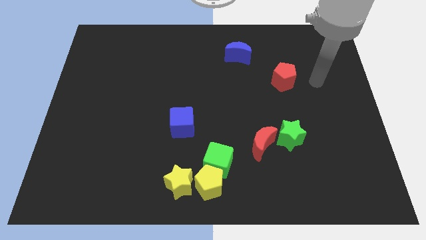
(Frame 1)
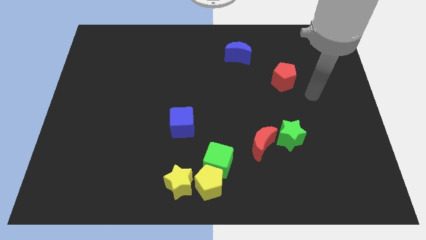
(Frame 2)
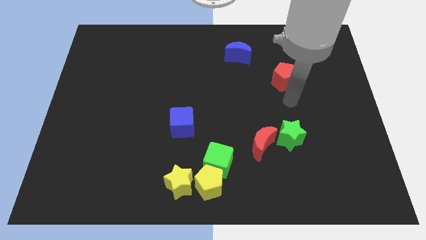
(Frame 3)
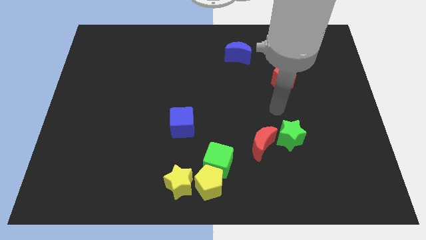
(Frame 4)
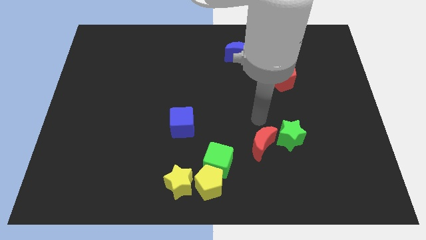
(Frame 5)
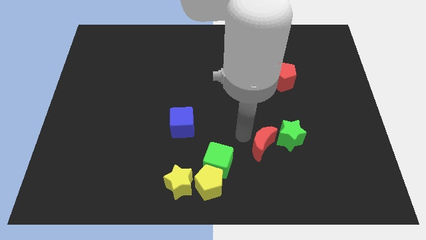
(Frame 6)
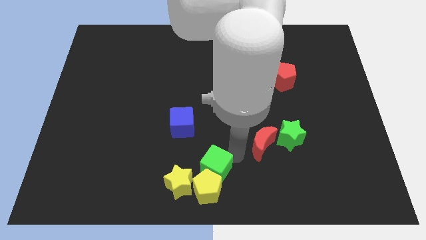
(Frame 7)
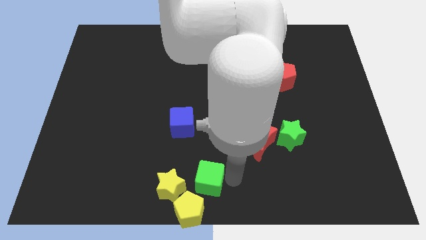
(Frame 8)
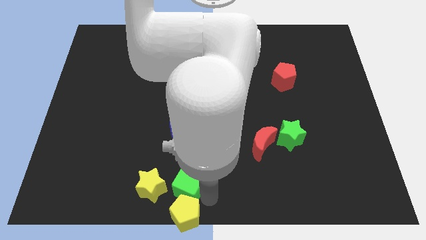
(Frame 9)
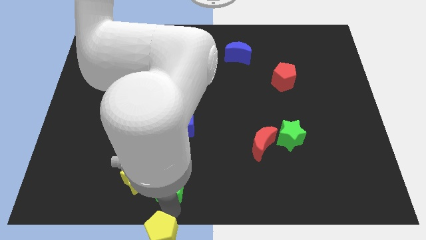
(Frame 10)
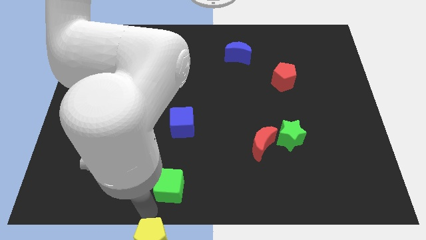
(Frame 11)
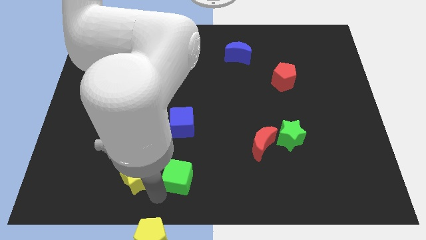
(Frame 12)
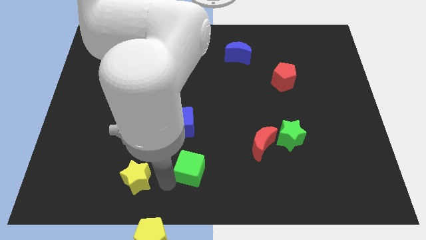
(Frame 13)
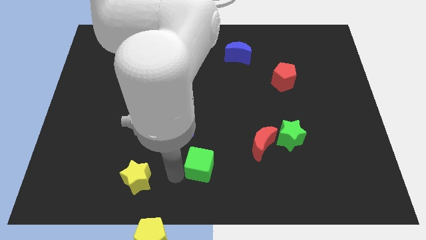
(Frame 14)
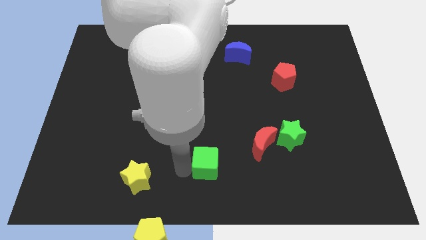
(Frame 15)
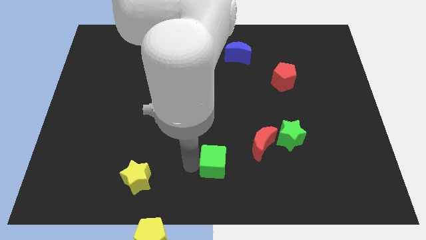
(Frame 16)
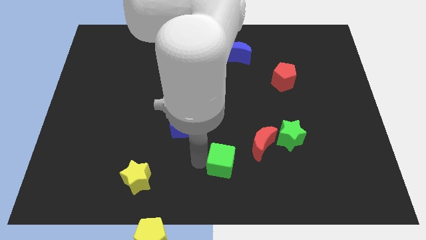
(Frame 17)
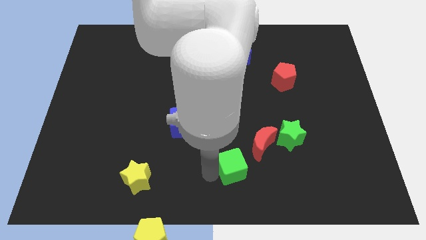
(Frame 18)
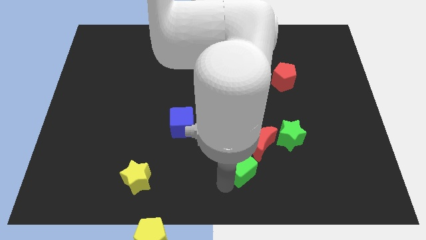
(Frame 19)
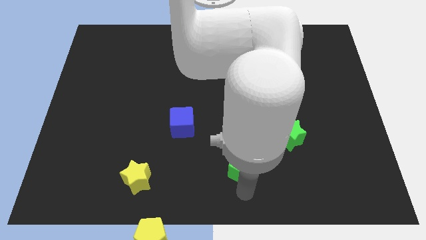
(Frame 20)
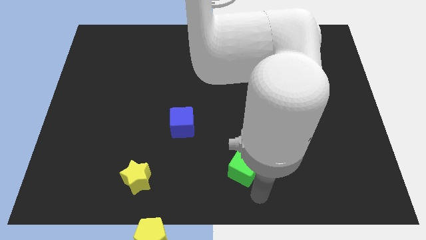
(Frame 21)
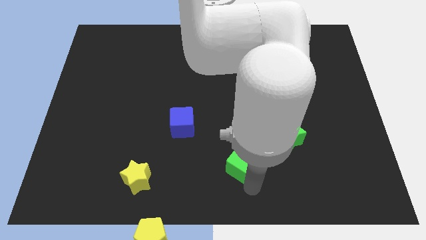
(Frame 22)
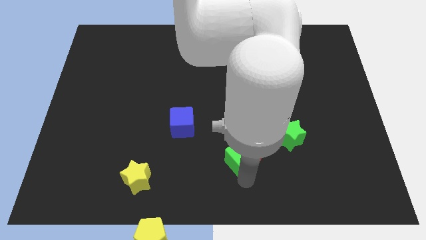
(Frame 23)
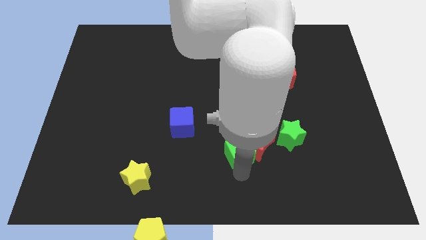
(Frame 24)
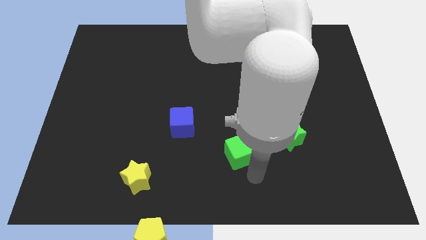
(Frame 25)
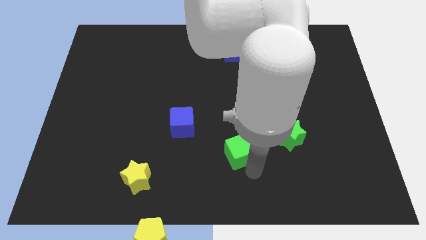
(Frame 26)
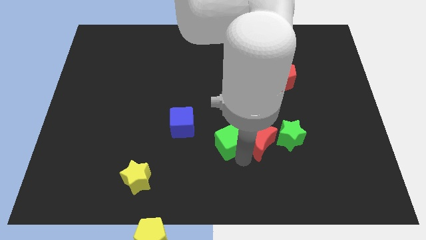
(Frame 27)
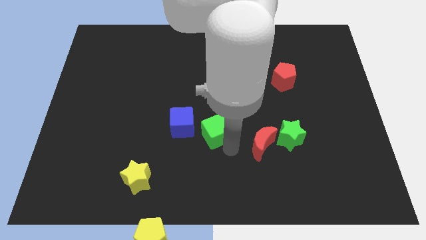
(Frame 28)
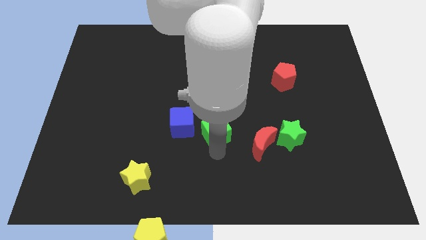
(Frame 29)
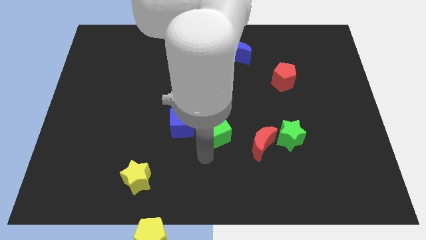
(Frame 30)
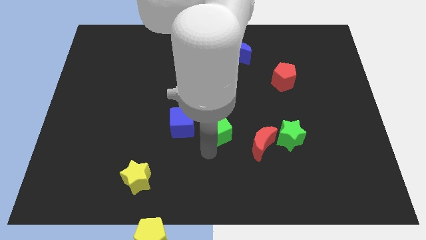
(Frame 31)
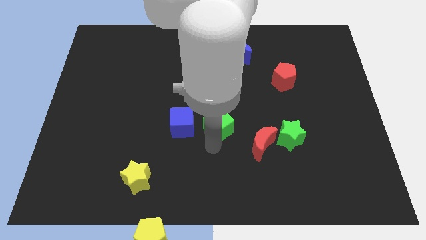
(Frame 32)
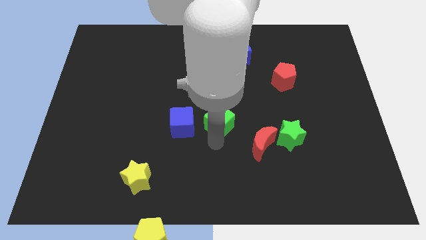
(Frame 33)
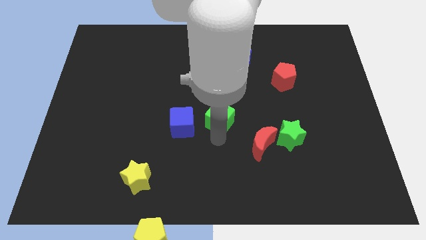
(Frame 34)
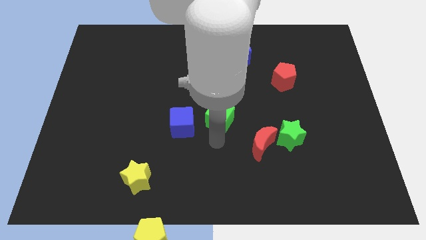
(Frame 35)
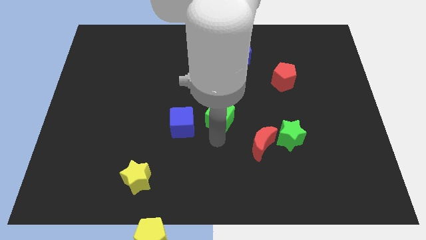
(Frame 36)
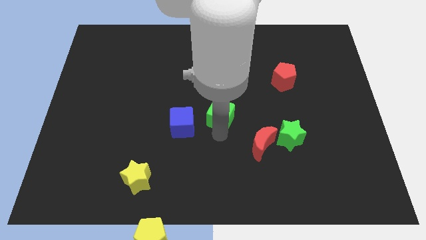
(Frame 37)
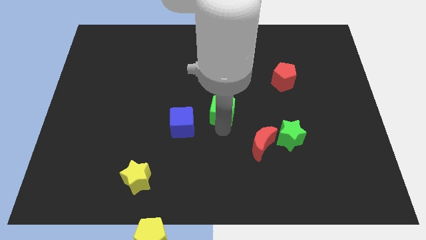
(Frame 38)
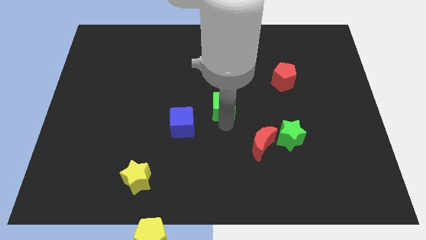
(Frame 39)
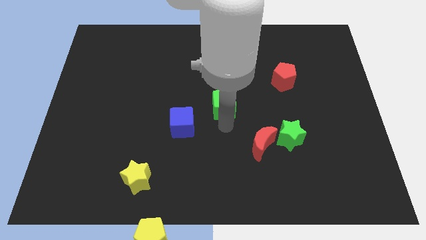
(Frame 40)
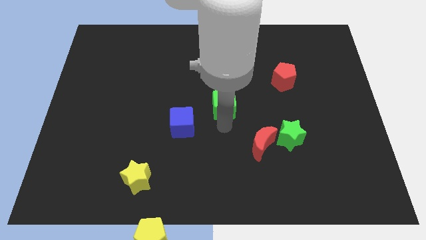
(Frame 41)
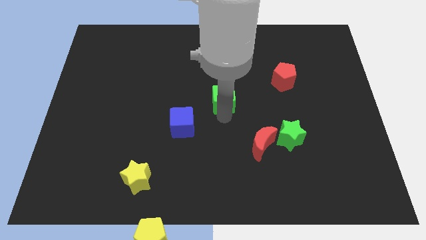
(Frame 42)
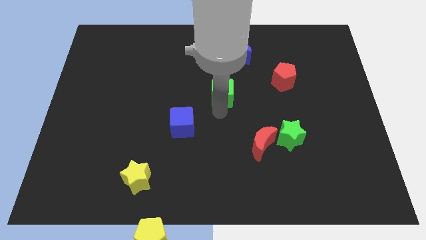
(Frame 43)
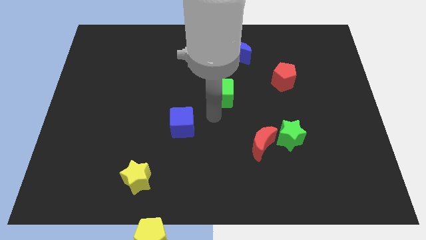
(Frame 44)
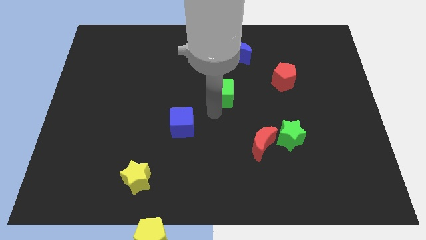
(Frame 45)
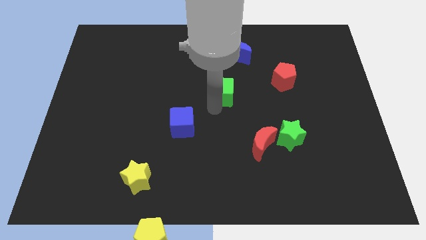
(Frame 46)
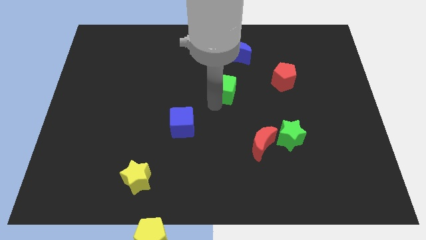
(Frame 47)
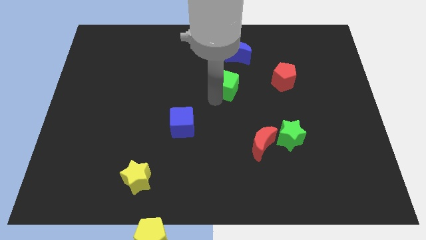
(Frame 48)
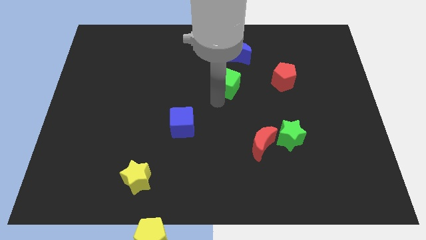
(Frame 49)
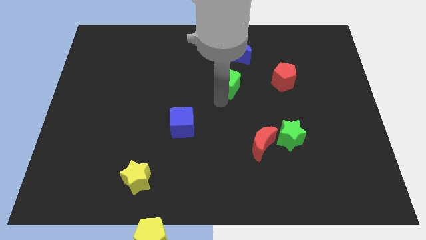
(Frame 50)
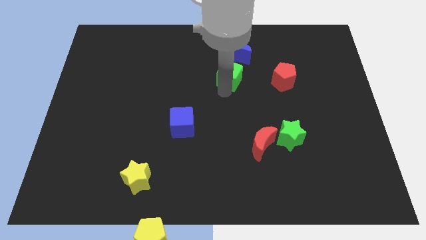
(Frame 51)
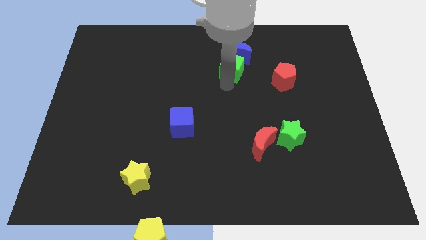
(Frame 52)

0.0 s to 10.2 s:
move the green cube to the blue moon

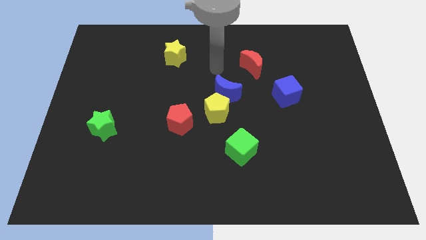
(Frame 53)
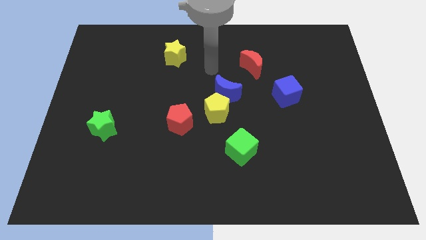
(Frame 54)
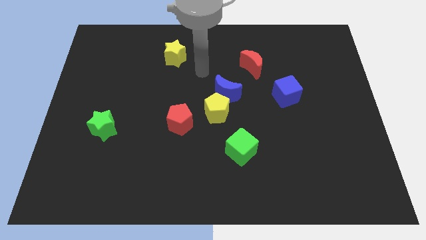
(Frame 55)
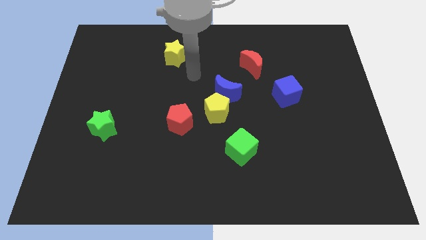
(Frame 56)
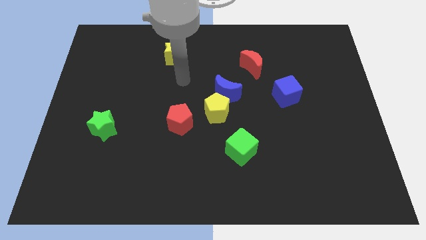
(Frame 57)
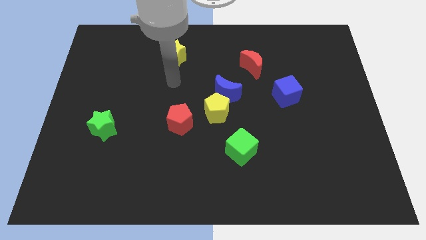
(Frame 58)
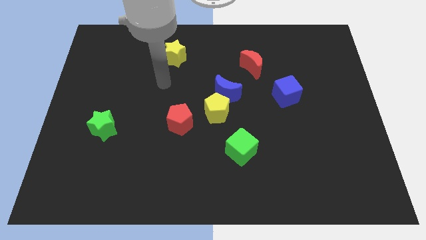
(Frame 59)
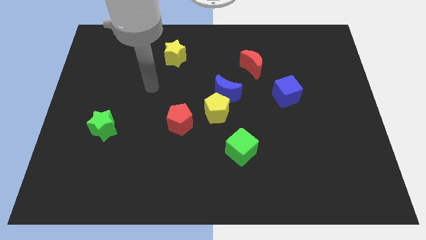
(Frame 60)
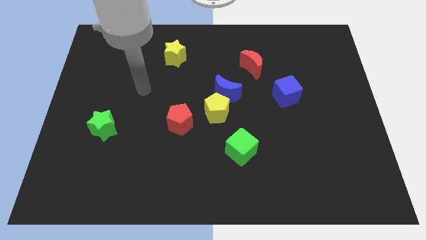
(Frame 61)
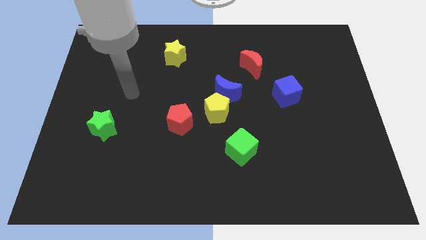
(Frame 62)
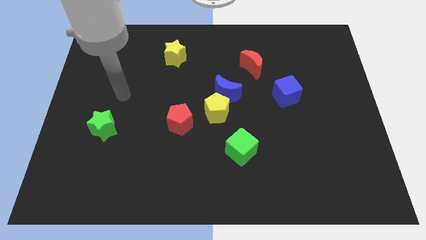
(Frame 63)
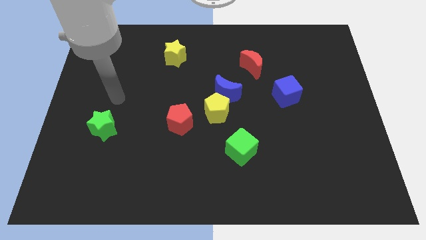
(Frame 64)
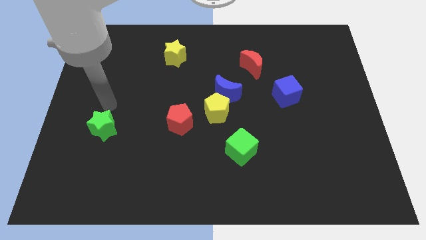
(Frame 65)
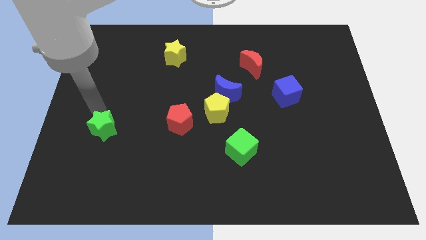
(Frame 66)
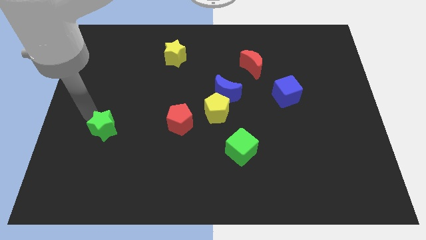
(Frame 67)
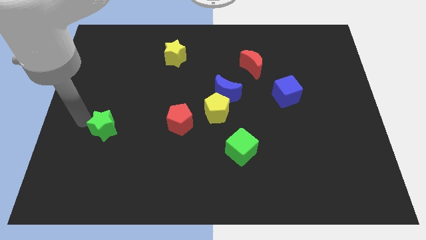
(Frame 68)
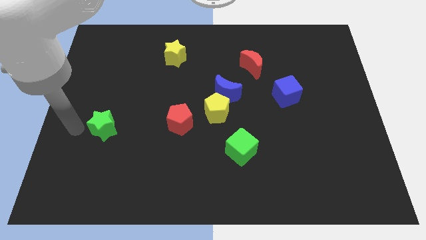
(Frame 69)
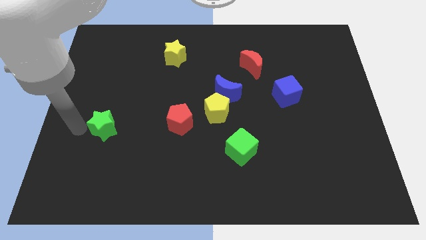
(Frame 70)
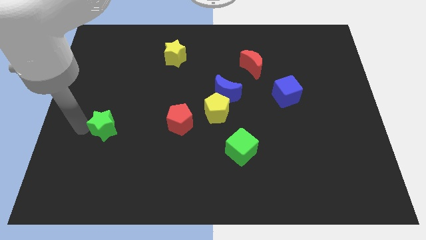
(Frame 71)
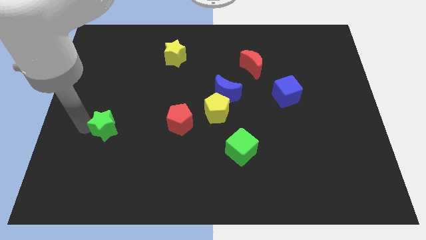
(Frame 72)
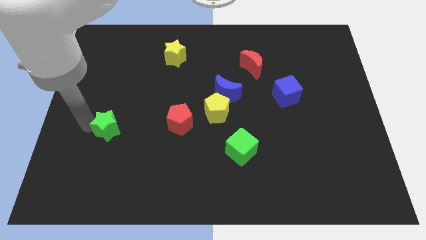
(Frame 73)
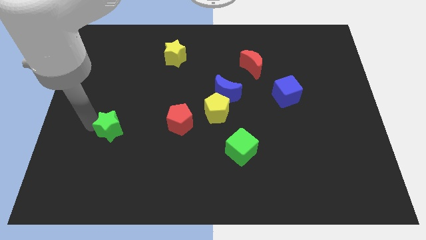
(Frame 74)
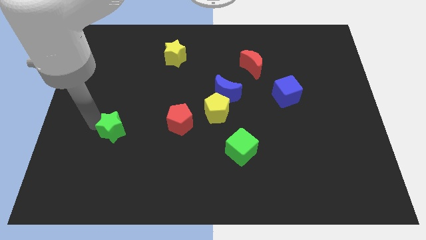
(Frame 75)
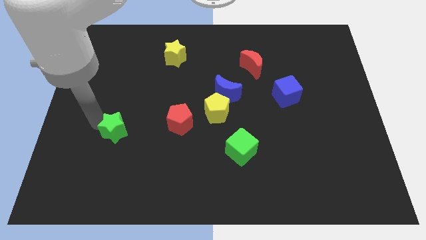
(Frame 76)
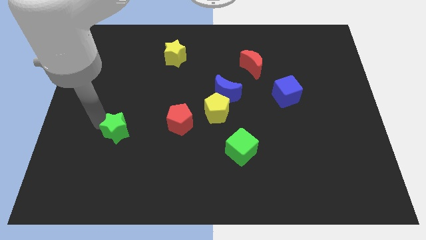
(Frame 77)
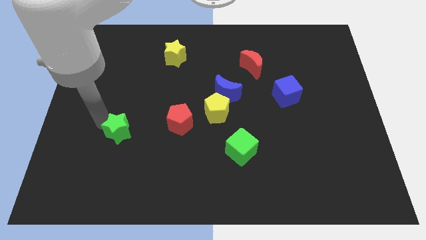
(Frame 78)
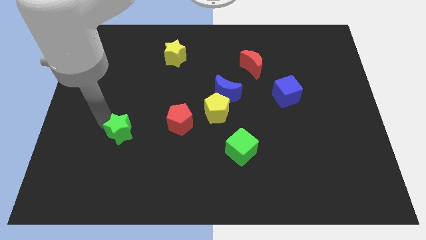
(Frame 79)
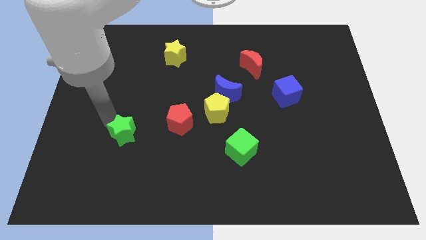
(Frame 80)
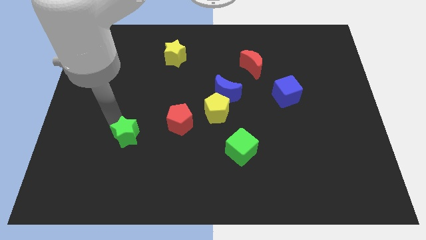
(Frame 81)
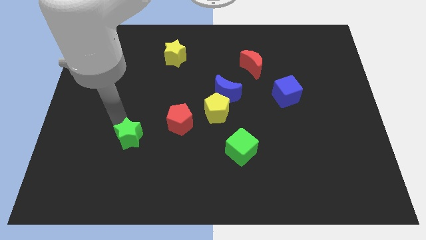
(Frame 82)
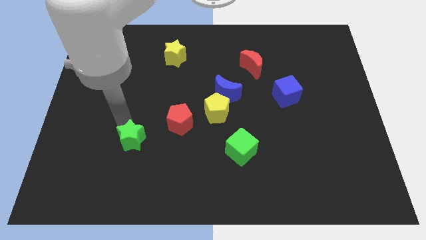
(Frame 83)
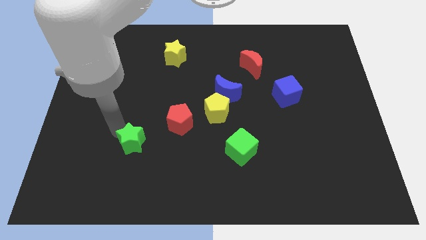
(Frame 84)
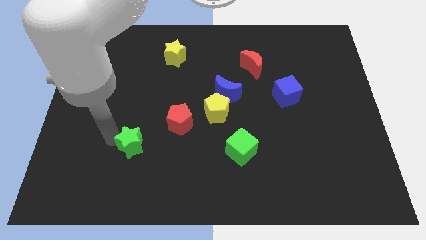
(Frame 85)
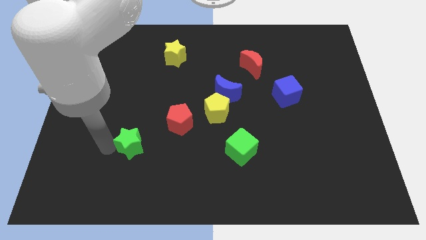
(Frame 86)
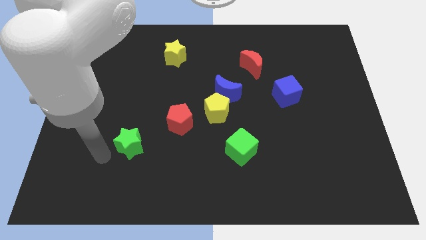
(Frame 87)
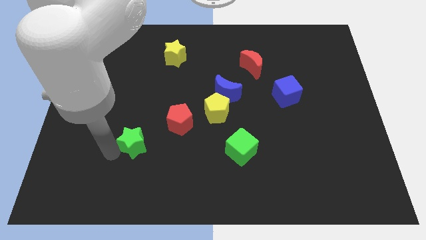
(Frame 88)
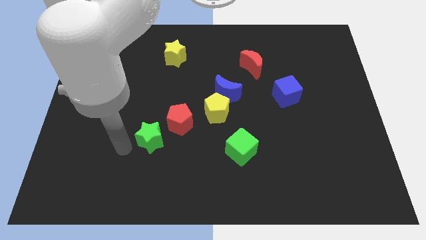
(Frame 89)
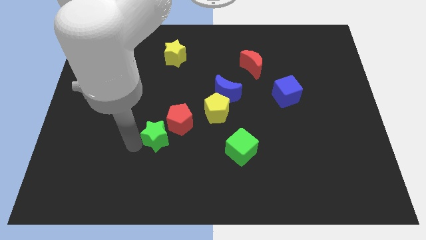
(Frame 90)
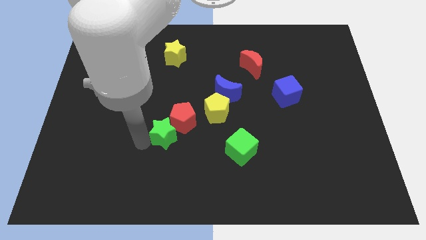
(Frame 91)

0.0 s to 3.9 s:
slide the green star close to the red pentagon
